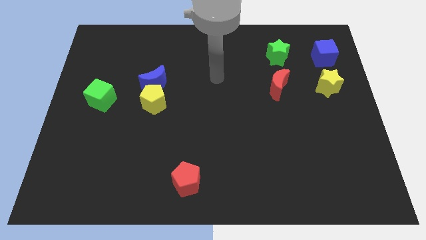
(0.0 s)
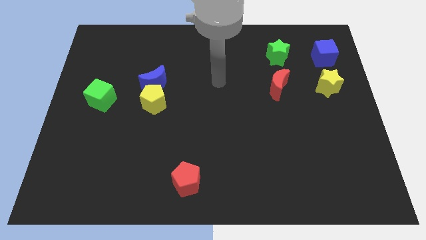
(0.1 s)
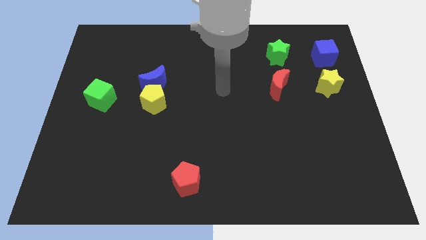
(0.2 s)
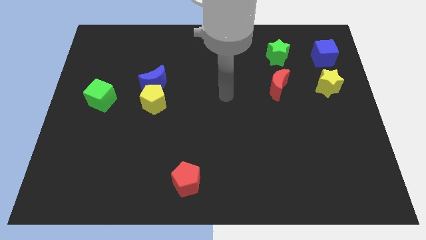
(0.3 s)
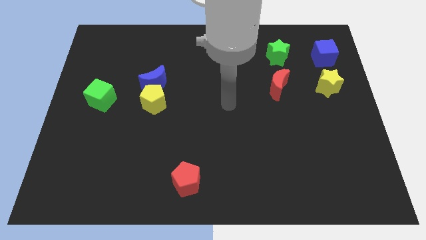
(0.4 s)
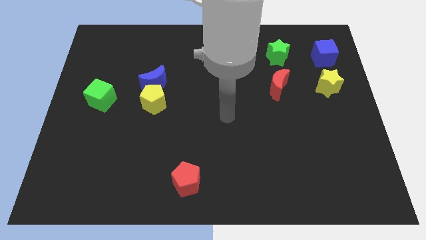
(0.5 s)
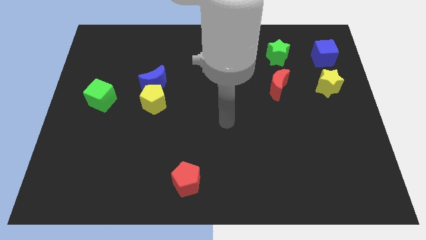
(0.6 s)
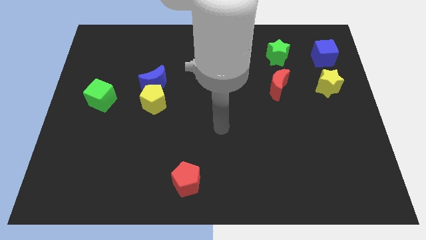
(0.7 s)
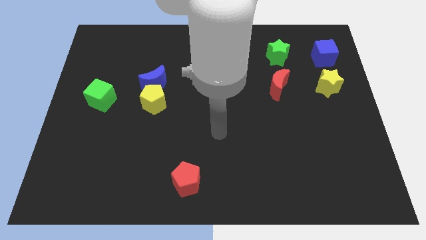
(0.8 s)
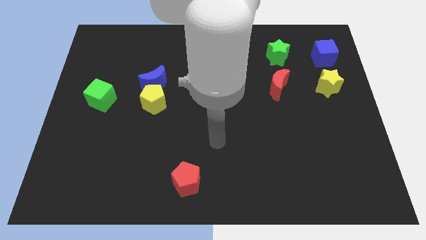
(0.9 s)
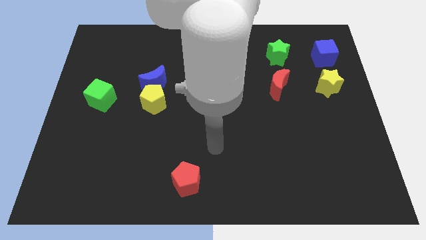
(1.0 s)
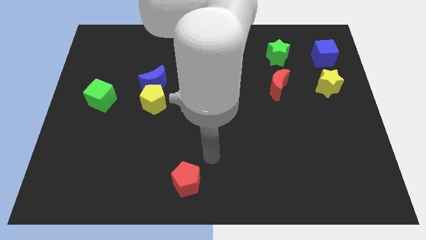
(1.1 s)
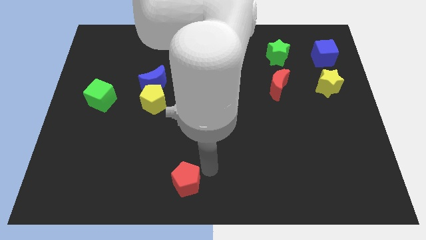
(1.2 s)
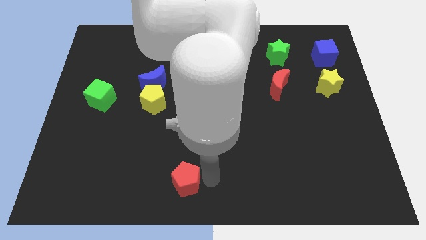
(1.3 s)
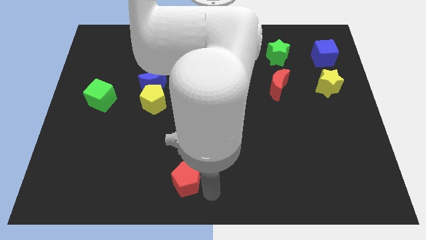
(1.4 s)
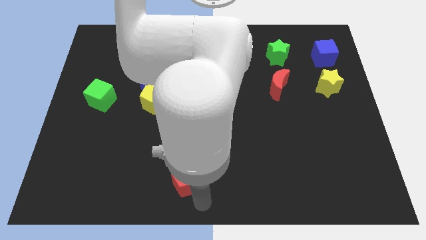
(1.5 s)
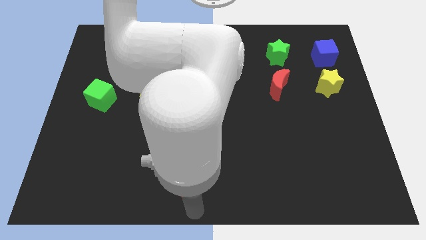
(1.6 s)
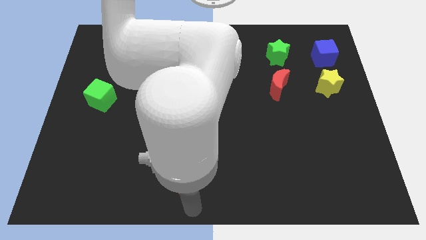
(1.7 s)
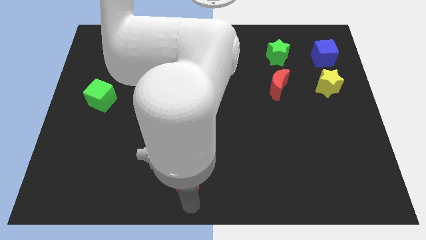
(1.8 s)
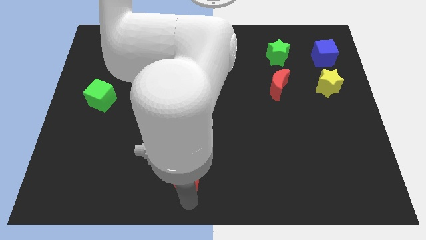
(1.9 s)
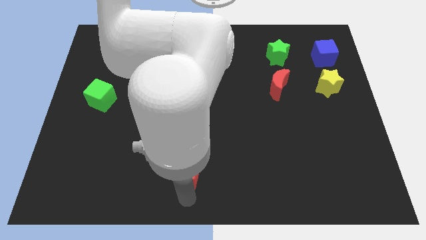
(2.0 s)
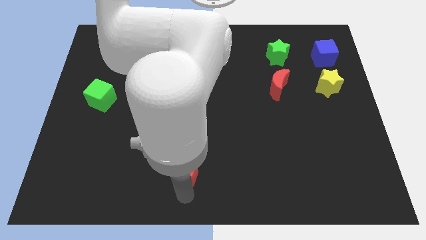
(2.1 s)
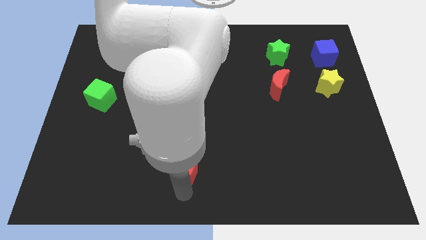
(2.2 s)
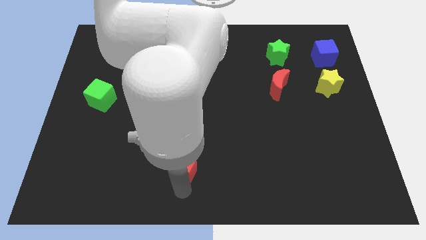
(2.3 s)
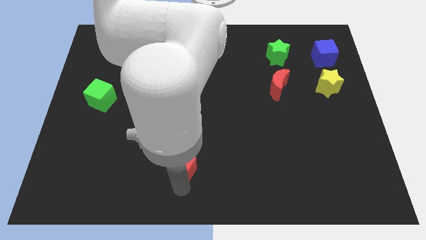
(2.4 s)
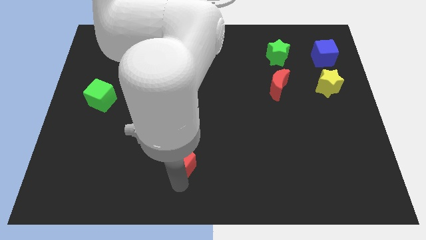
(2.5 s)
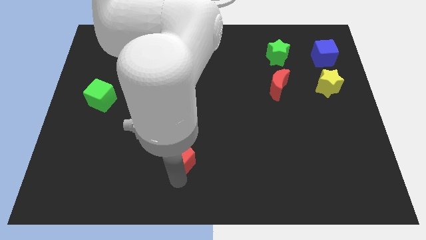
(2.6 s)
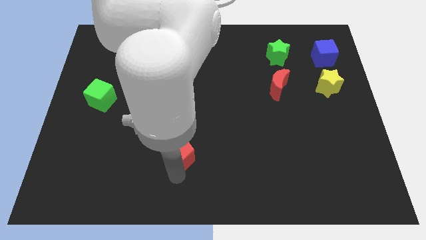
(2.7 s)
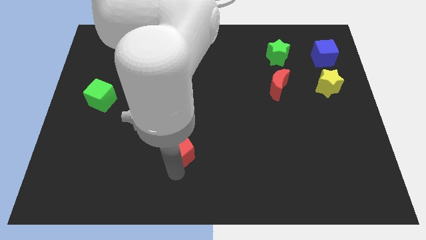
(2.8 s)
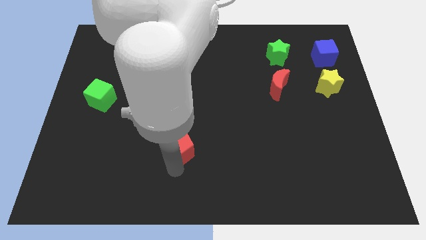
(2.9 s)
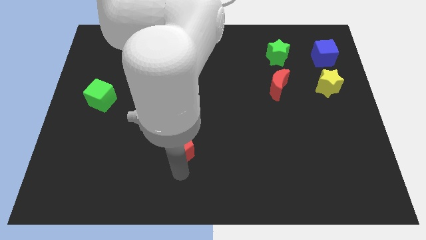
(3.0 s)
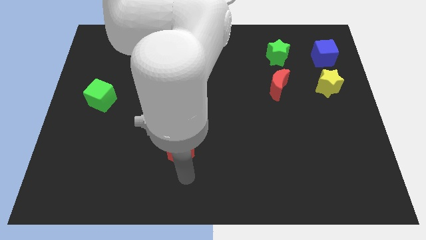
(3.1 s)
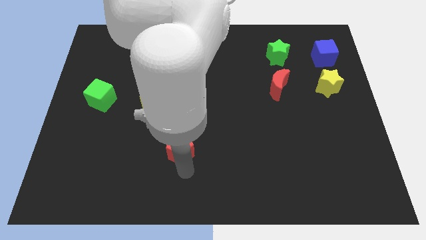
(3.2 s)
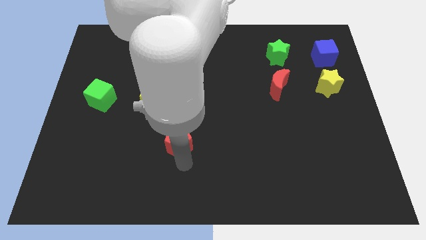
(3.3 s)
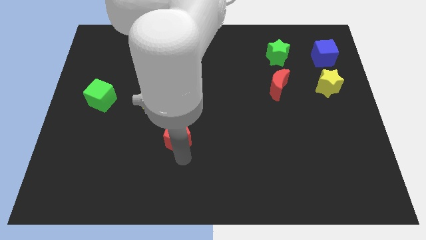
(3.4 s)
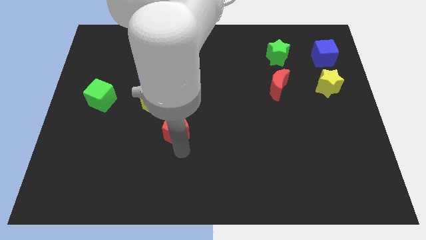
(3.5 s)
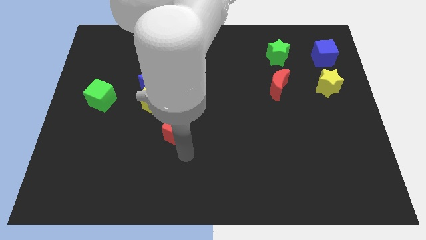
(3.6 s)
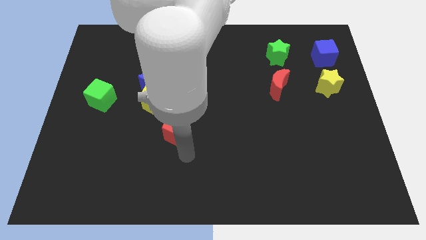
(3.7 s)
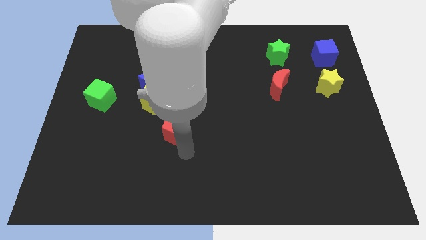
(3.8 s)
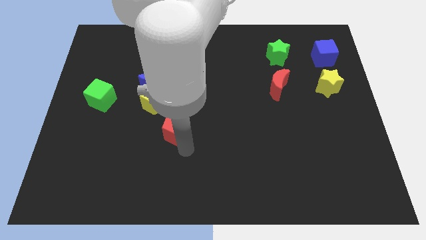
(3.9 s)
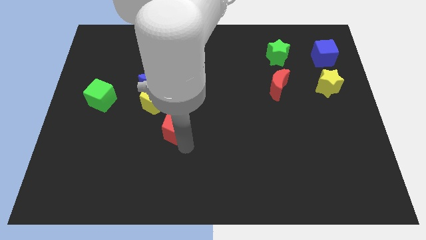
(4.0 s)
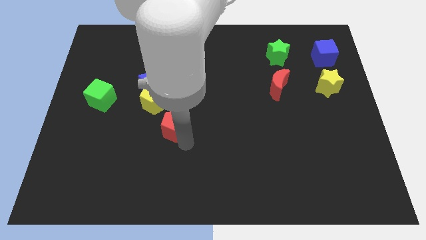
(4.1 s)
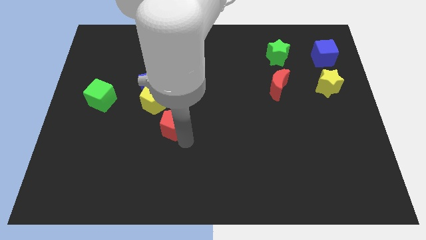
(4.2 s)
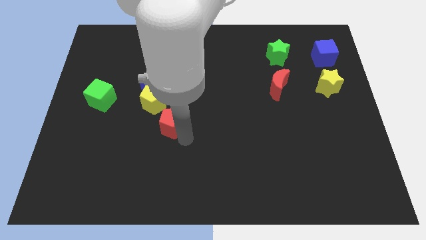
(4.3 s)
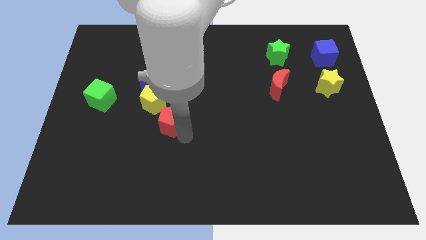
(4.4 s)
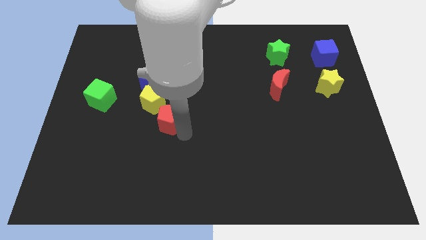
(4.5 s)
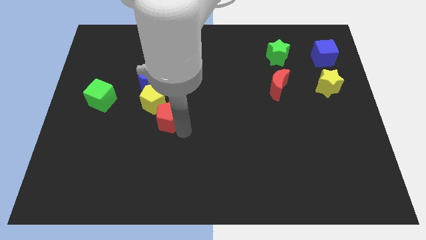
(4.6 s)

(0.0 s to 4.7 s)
put the red pentagon towards the yellow pentagon

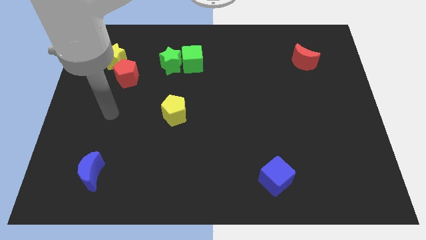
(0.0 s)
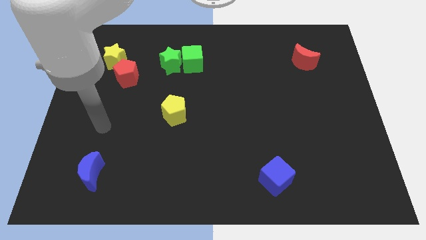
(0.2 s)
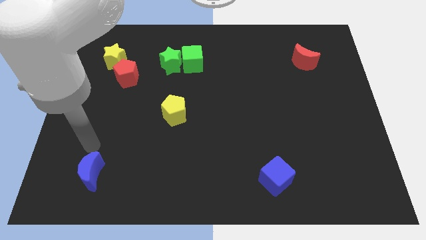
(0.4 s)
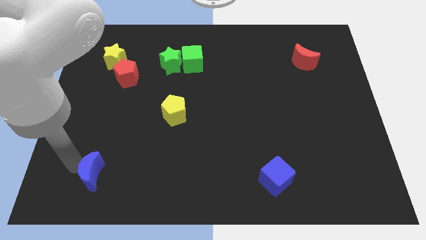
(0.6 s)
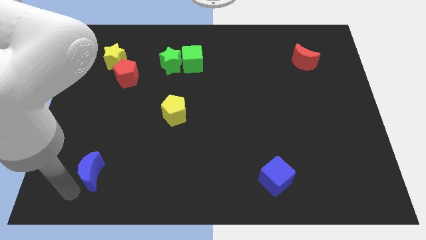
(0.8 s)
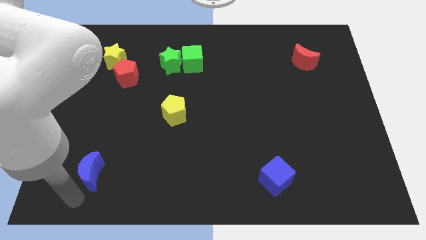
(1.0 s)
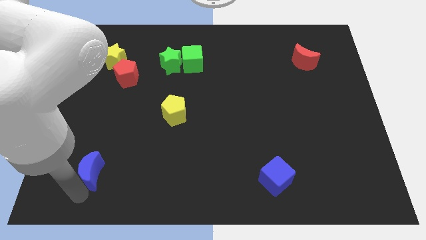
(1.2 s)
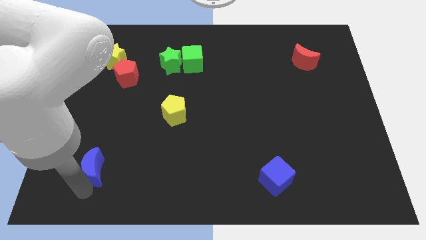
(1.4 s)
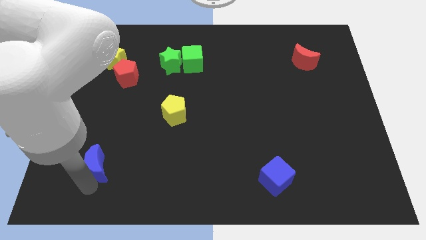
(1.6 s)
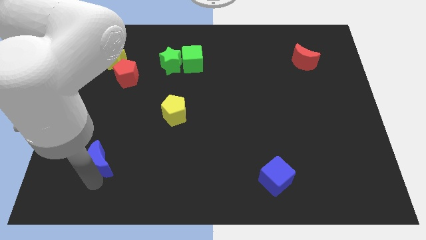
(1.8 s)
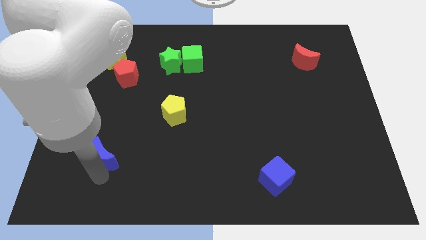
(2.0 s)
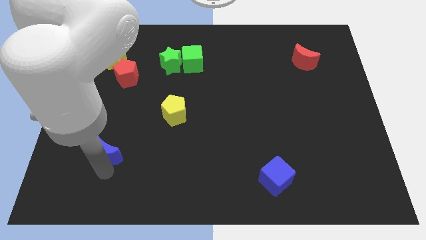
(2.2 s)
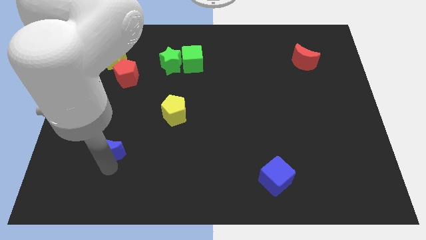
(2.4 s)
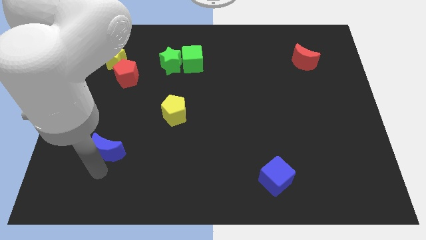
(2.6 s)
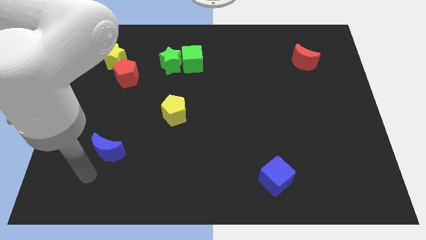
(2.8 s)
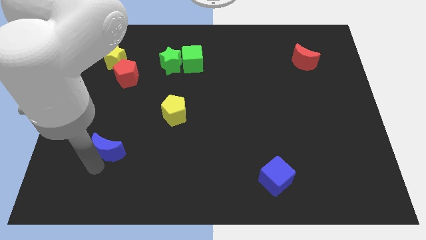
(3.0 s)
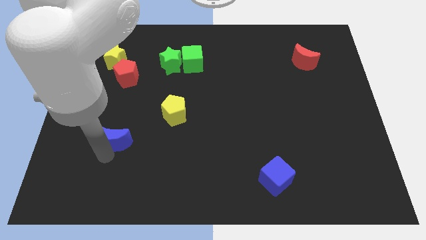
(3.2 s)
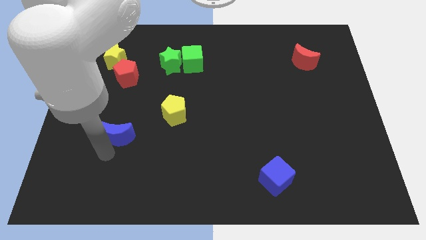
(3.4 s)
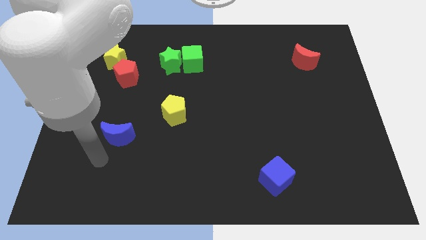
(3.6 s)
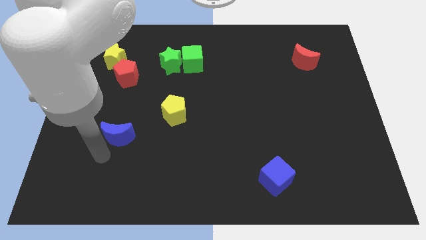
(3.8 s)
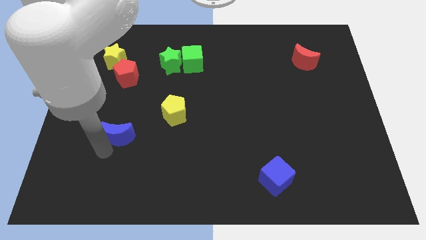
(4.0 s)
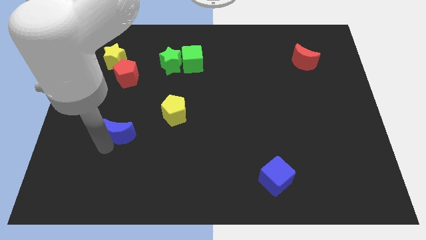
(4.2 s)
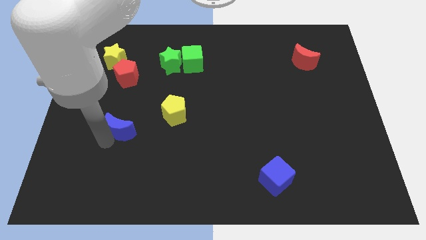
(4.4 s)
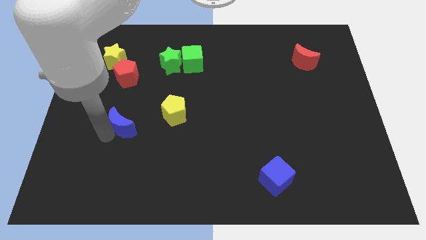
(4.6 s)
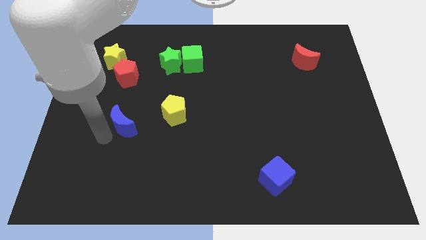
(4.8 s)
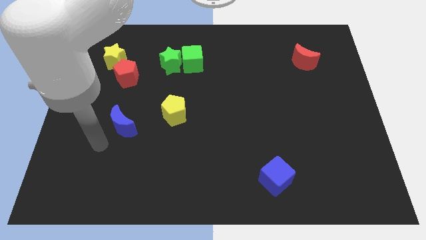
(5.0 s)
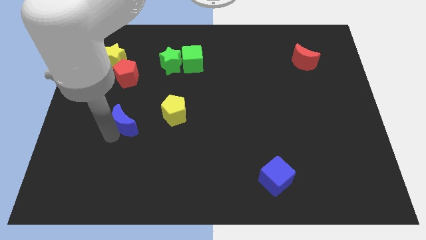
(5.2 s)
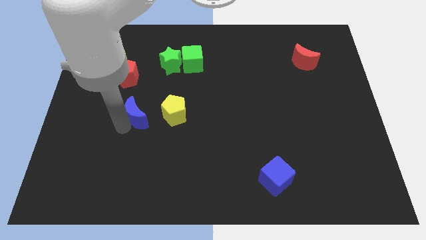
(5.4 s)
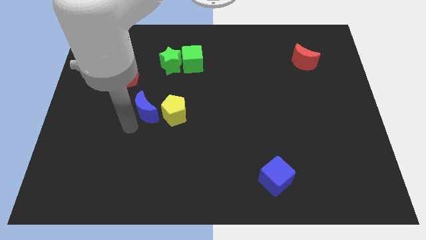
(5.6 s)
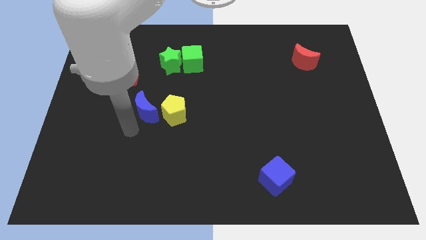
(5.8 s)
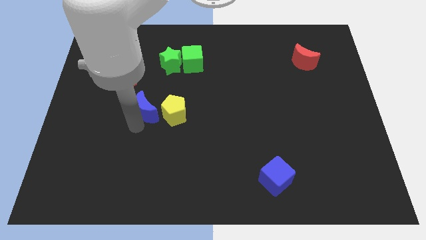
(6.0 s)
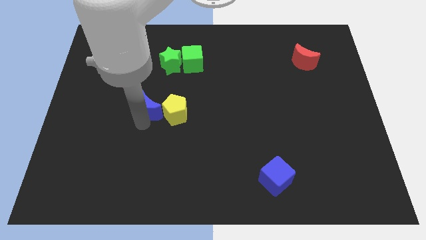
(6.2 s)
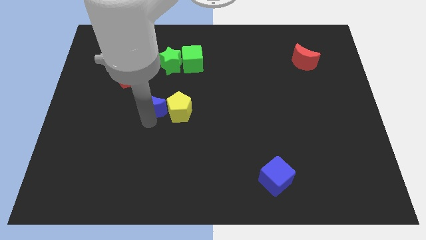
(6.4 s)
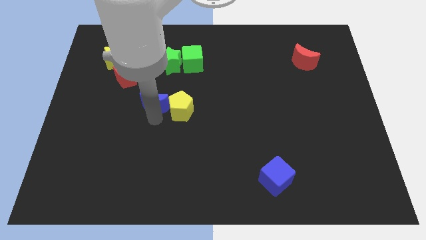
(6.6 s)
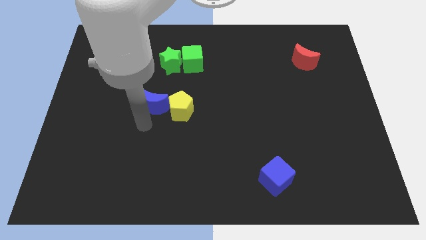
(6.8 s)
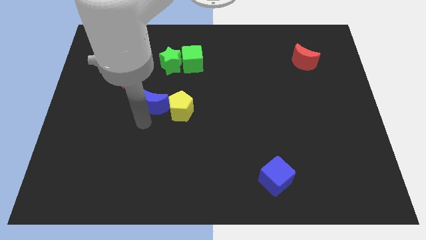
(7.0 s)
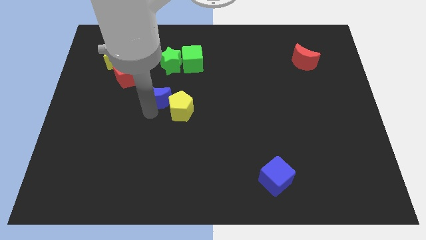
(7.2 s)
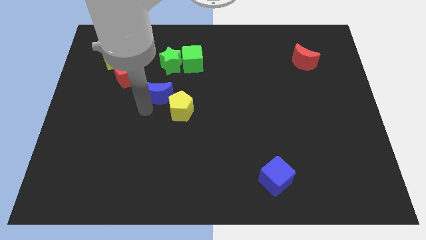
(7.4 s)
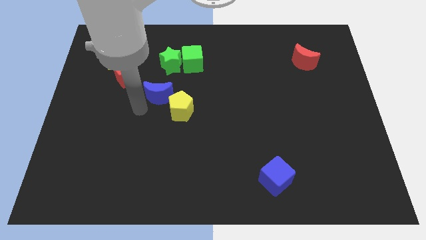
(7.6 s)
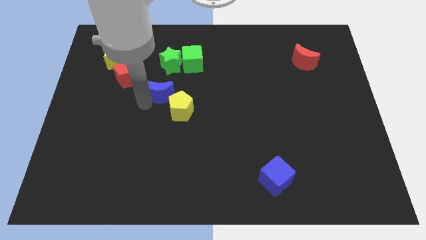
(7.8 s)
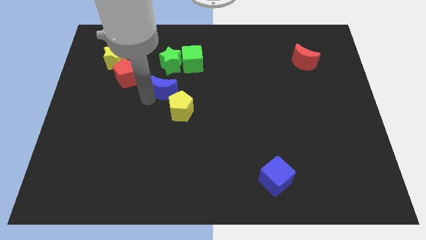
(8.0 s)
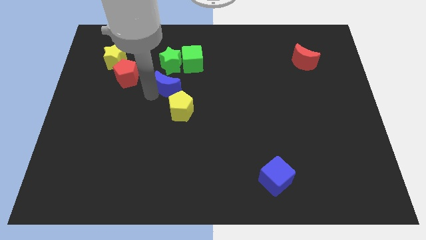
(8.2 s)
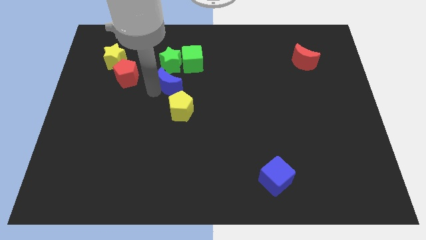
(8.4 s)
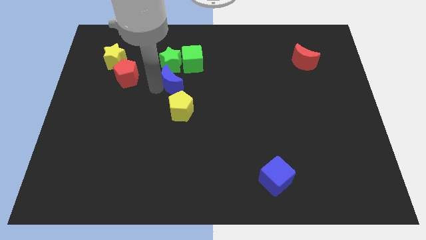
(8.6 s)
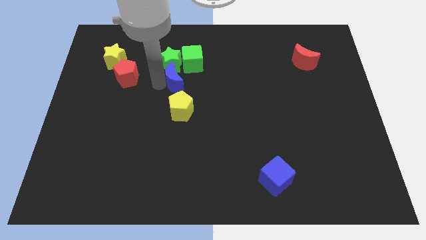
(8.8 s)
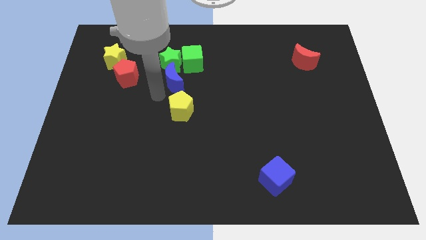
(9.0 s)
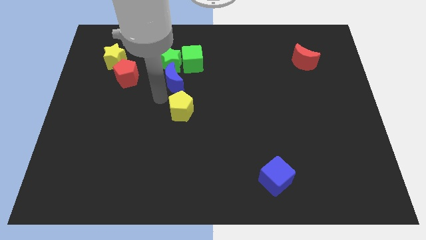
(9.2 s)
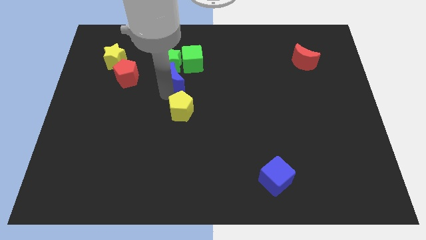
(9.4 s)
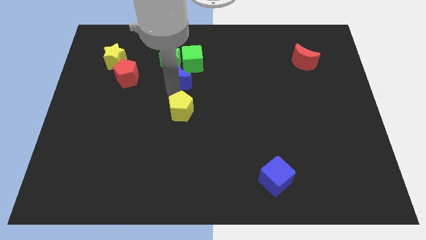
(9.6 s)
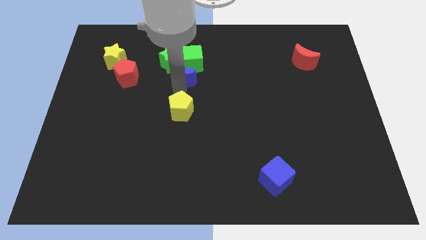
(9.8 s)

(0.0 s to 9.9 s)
put the blue moon towards the green cube
